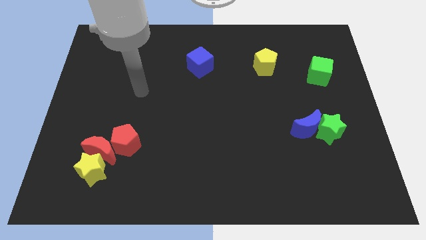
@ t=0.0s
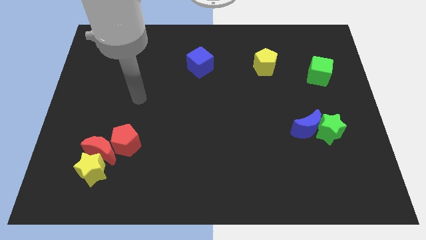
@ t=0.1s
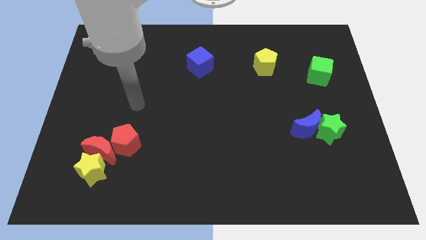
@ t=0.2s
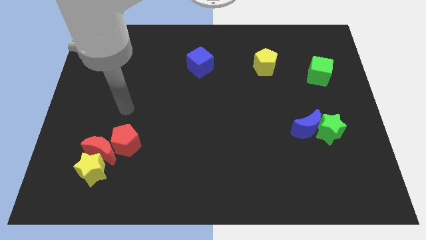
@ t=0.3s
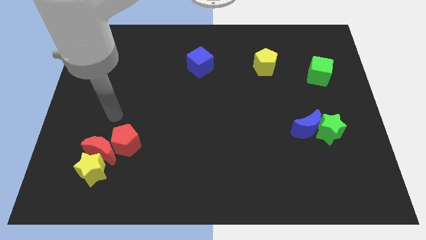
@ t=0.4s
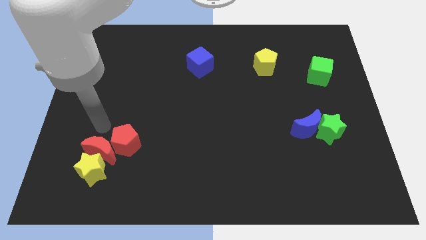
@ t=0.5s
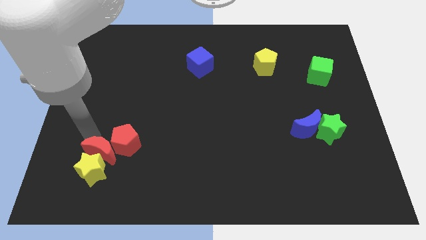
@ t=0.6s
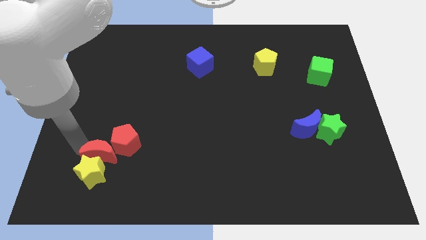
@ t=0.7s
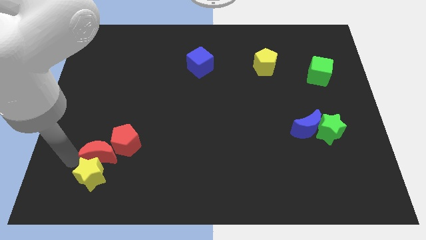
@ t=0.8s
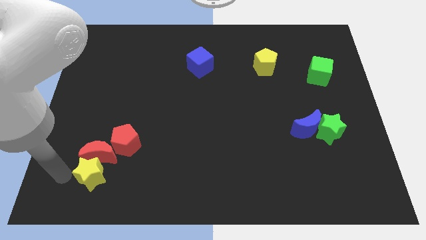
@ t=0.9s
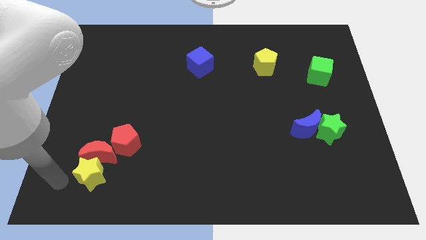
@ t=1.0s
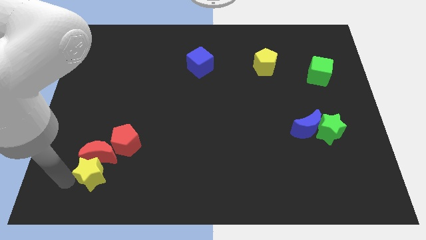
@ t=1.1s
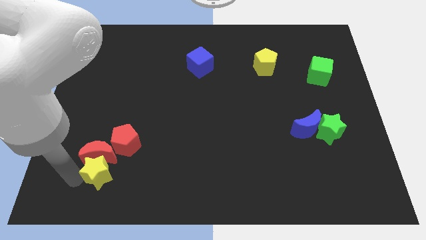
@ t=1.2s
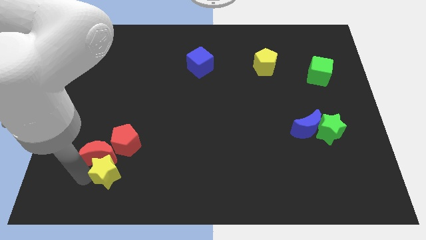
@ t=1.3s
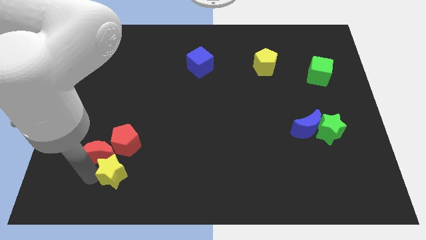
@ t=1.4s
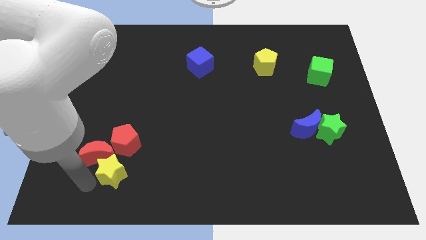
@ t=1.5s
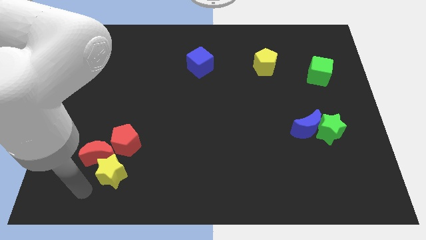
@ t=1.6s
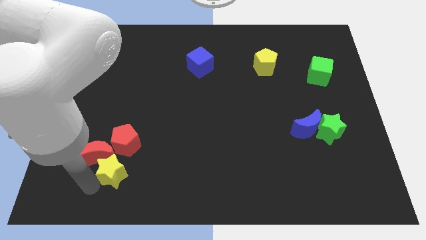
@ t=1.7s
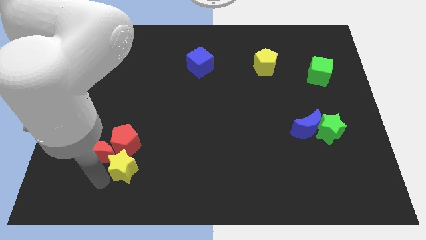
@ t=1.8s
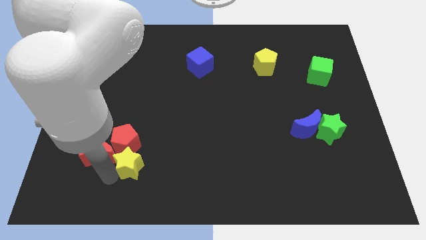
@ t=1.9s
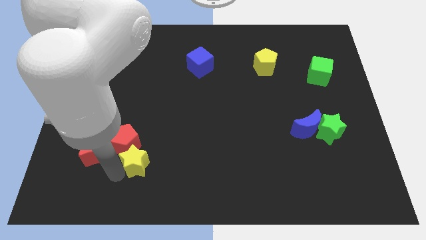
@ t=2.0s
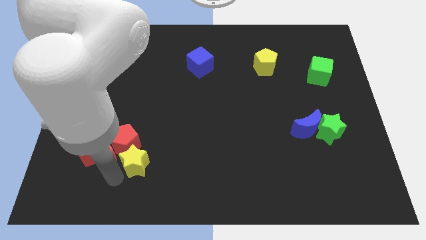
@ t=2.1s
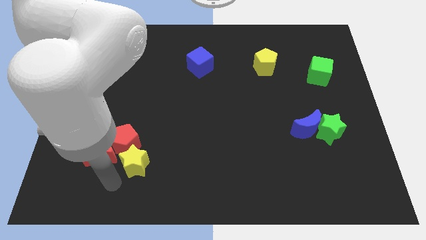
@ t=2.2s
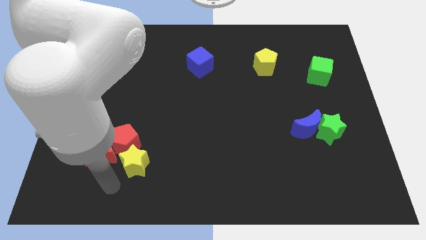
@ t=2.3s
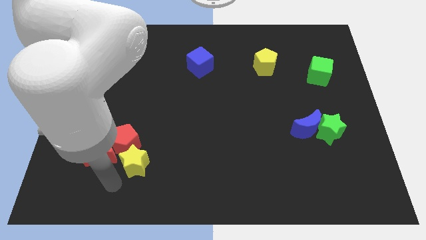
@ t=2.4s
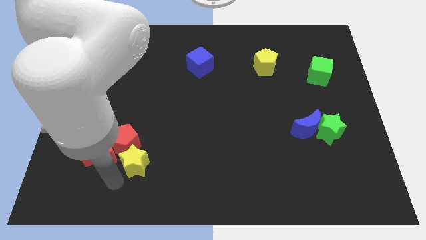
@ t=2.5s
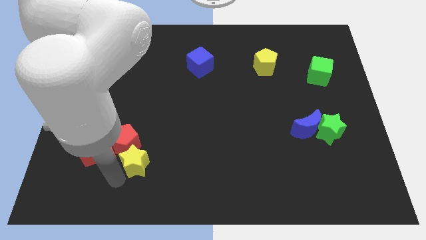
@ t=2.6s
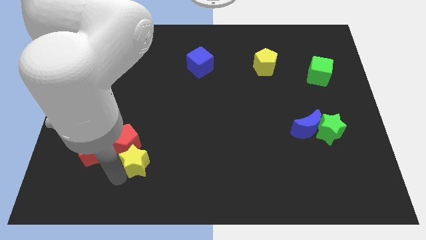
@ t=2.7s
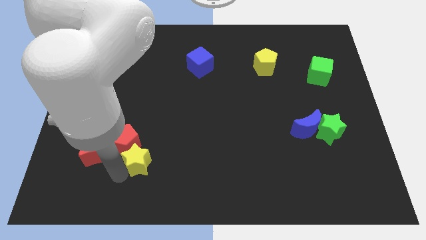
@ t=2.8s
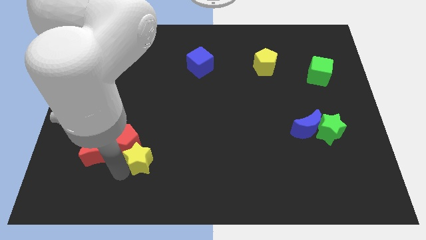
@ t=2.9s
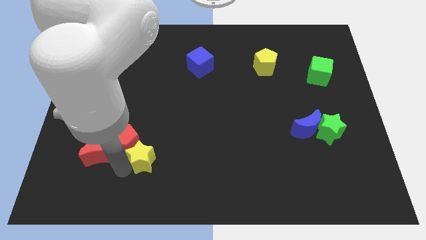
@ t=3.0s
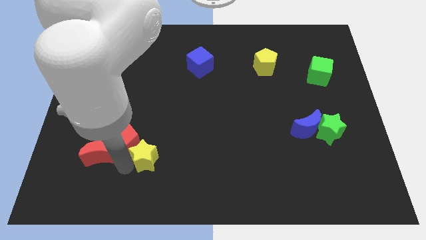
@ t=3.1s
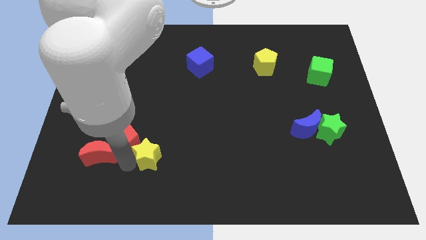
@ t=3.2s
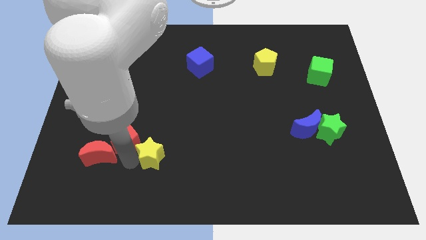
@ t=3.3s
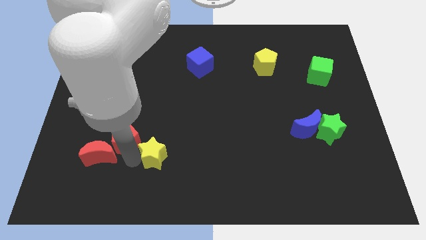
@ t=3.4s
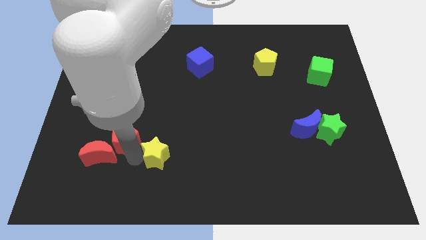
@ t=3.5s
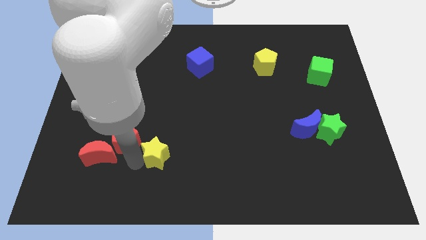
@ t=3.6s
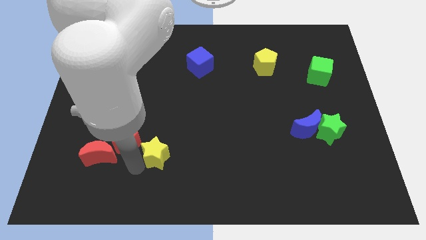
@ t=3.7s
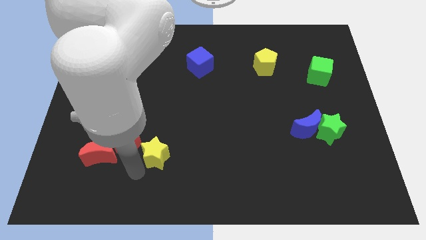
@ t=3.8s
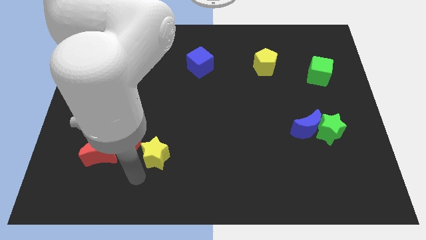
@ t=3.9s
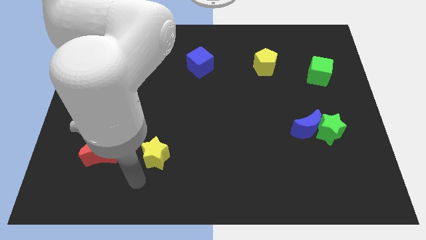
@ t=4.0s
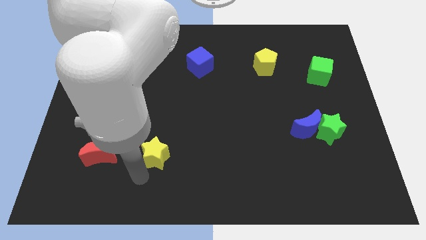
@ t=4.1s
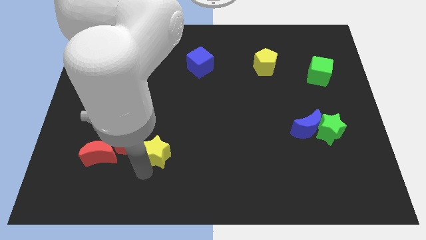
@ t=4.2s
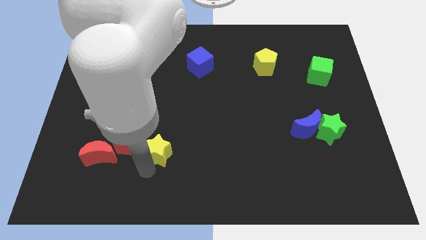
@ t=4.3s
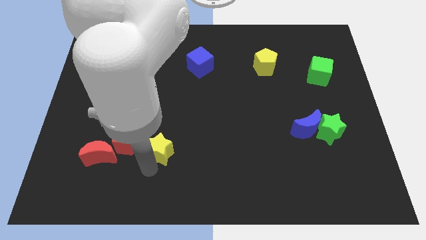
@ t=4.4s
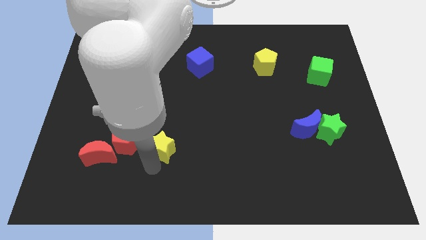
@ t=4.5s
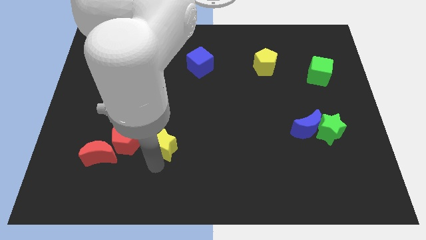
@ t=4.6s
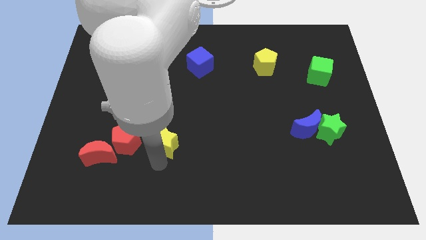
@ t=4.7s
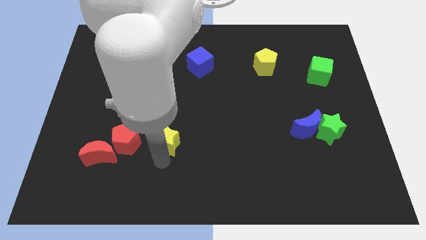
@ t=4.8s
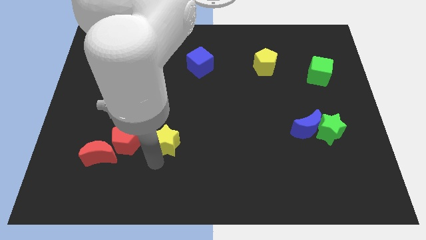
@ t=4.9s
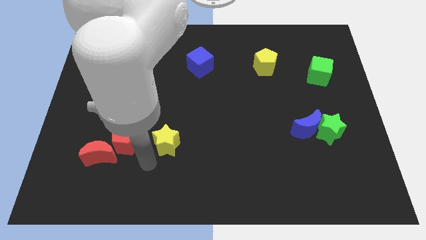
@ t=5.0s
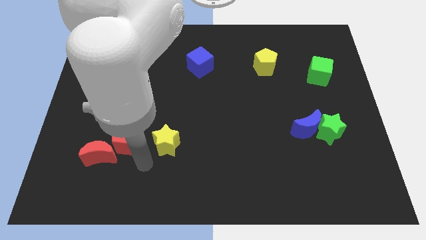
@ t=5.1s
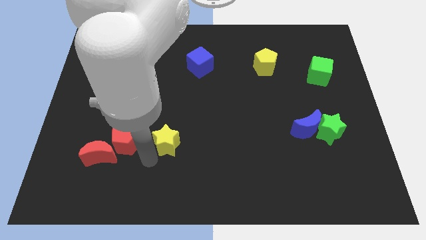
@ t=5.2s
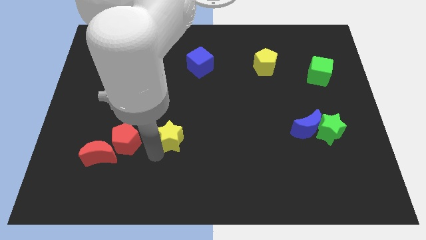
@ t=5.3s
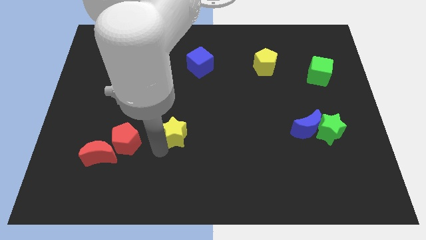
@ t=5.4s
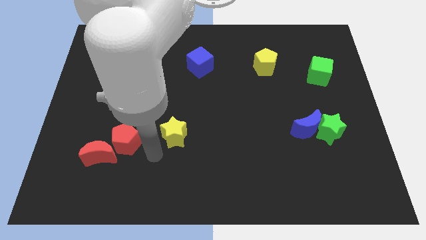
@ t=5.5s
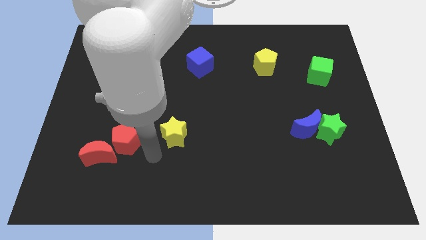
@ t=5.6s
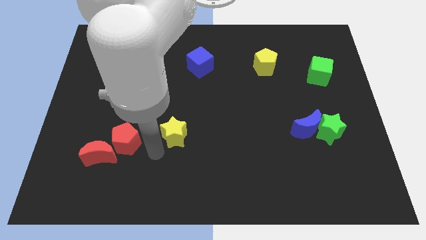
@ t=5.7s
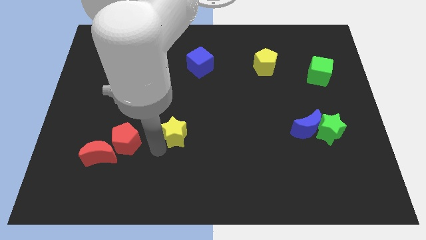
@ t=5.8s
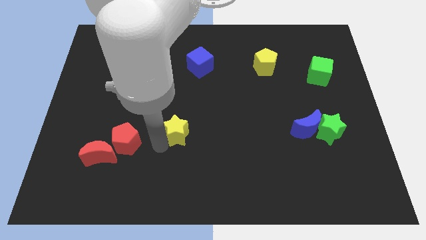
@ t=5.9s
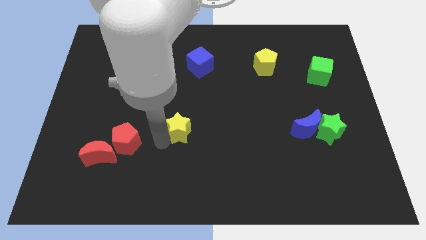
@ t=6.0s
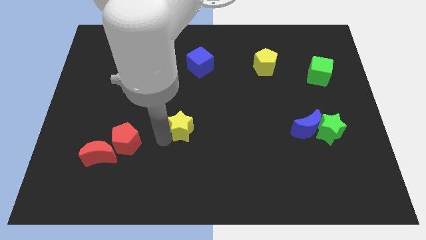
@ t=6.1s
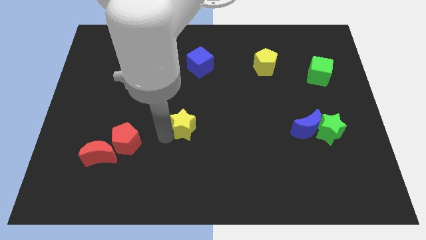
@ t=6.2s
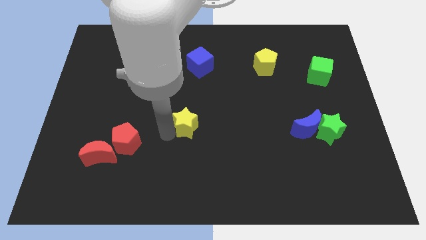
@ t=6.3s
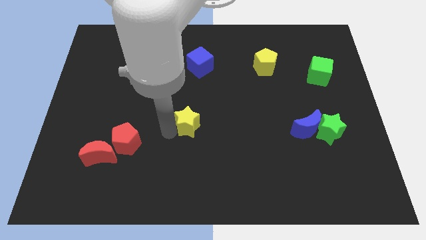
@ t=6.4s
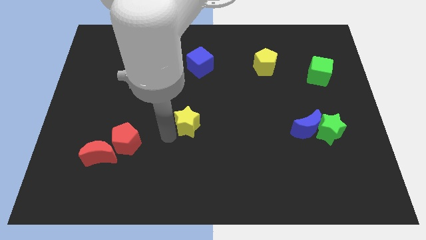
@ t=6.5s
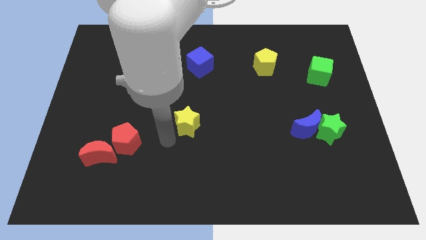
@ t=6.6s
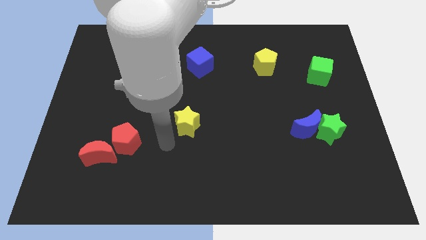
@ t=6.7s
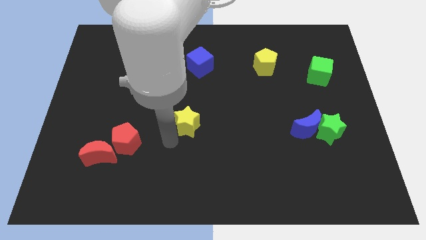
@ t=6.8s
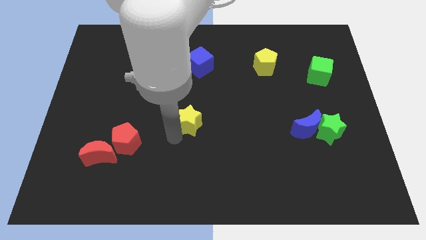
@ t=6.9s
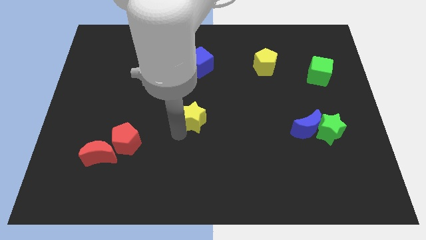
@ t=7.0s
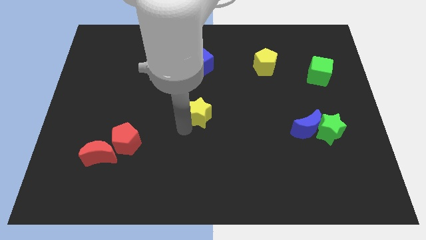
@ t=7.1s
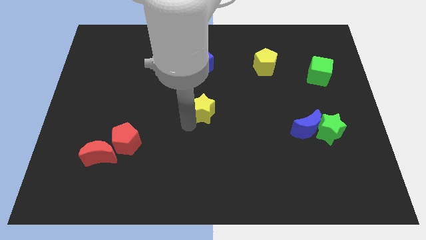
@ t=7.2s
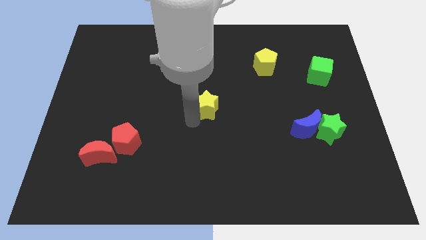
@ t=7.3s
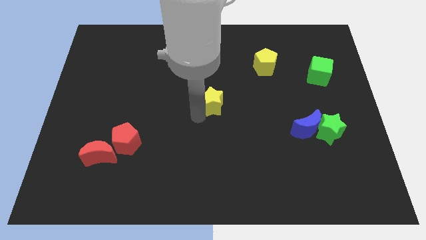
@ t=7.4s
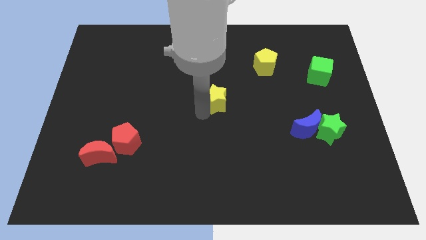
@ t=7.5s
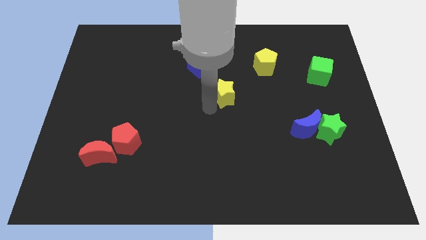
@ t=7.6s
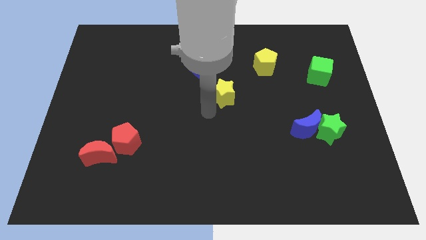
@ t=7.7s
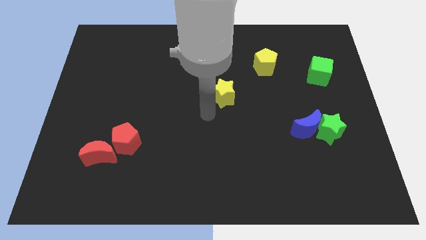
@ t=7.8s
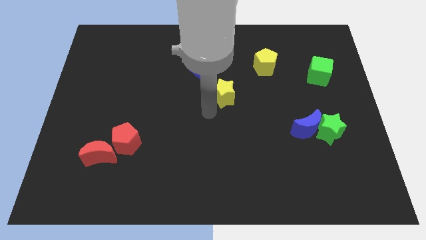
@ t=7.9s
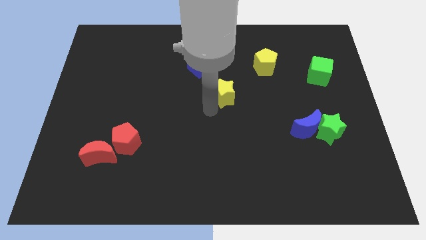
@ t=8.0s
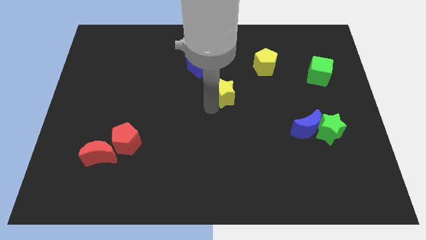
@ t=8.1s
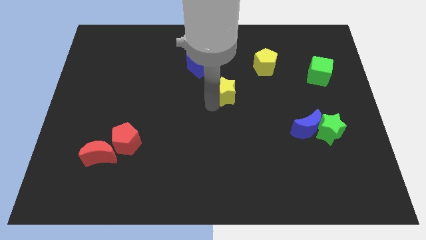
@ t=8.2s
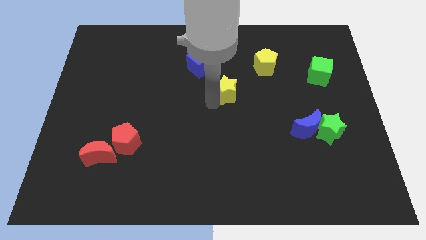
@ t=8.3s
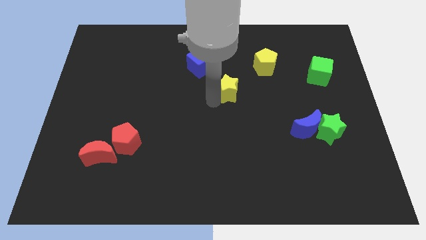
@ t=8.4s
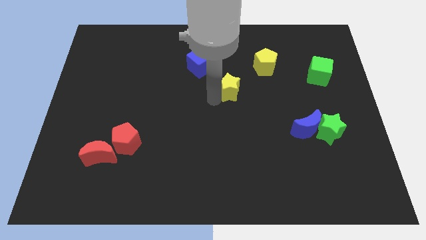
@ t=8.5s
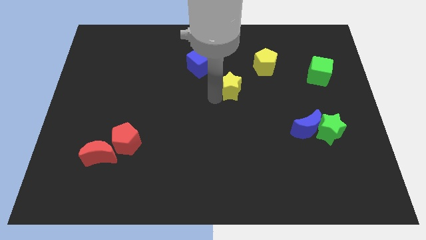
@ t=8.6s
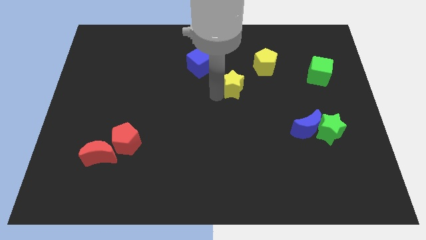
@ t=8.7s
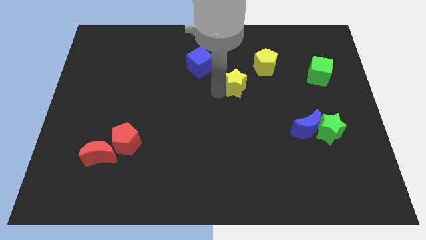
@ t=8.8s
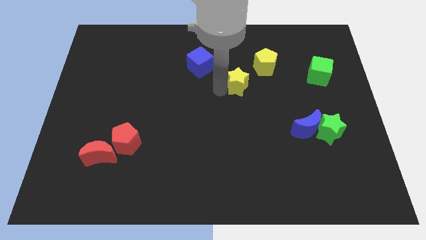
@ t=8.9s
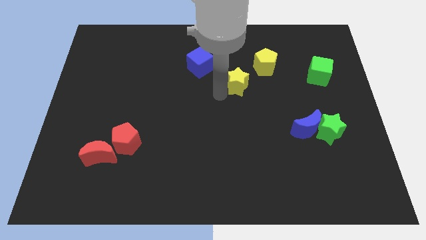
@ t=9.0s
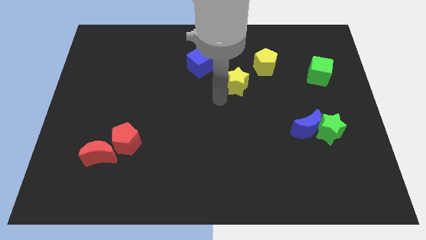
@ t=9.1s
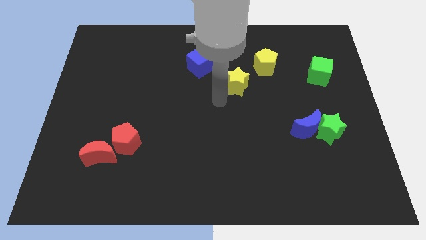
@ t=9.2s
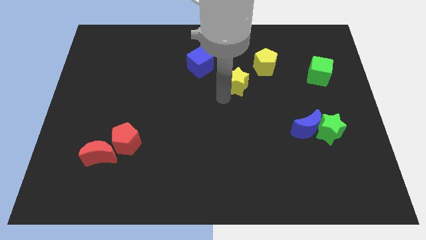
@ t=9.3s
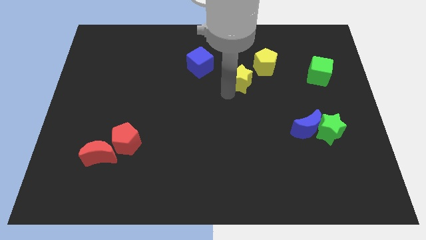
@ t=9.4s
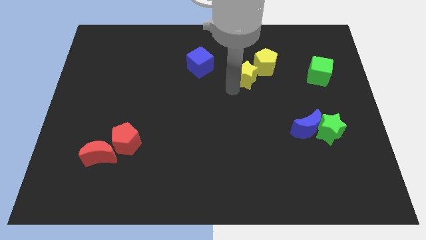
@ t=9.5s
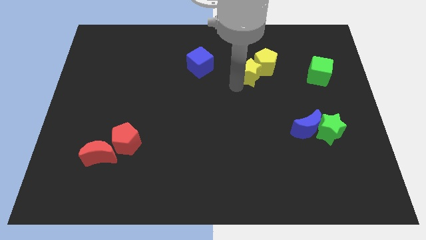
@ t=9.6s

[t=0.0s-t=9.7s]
move the yellow star close to the yellow pentagon
